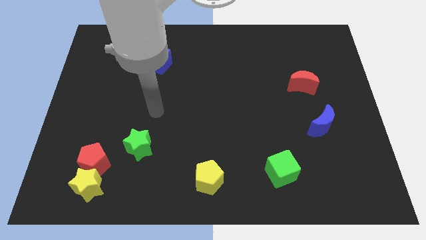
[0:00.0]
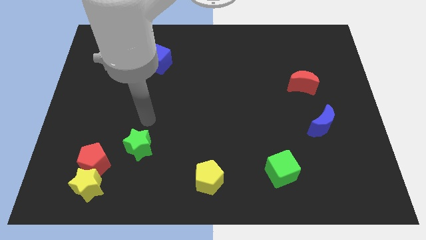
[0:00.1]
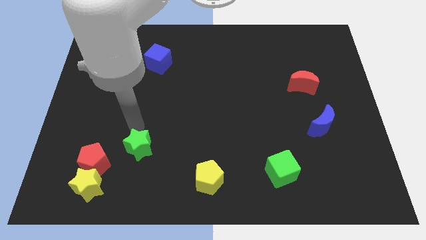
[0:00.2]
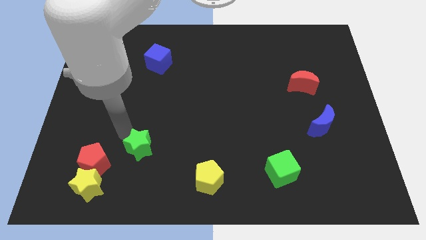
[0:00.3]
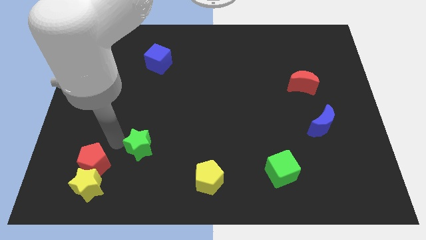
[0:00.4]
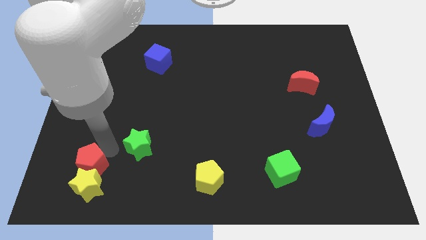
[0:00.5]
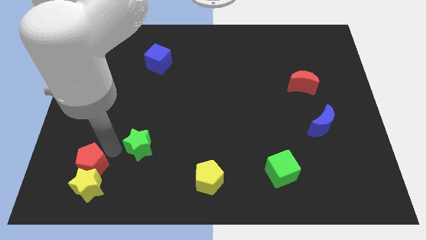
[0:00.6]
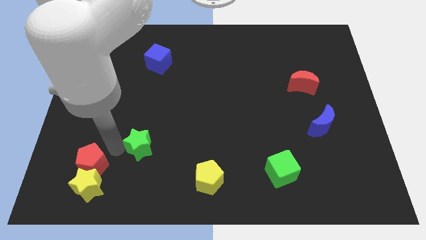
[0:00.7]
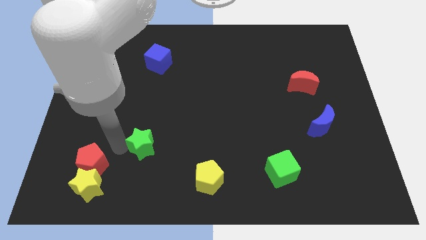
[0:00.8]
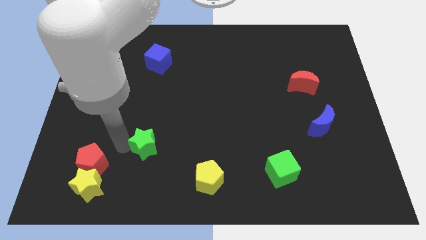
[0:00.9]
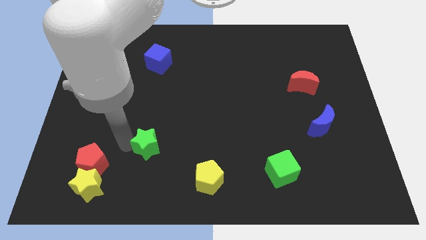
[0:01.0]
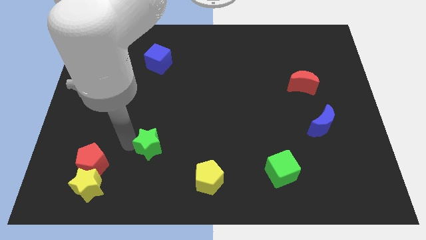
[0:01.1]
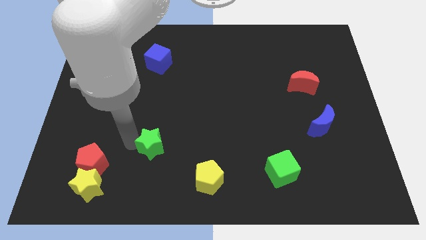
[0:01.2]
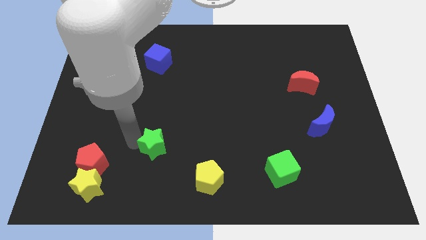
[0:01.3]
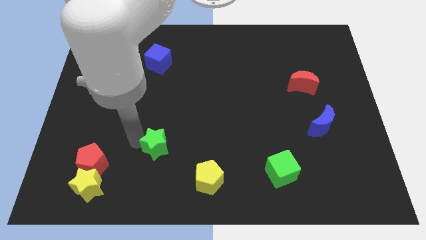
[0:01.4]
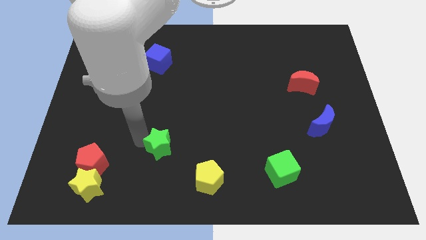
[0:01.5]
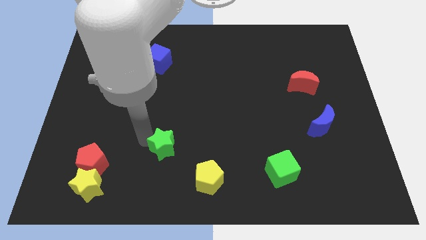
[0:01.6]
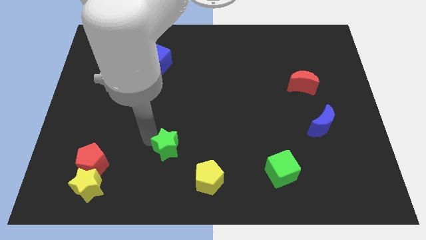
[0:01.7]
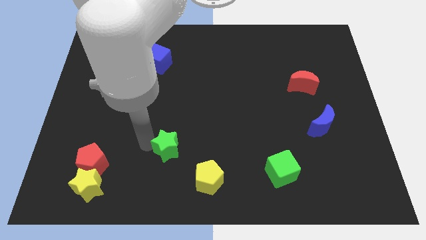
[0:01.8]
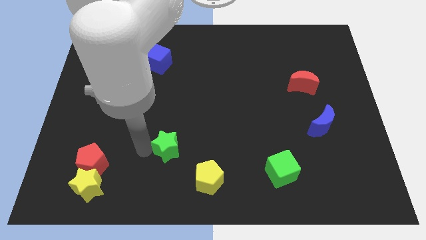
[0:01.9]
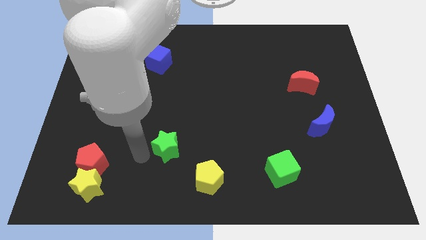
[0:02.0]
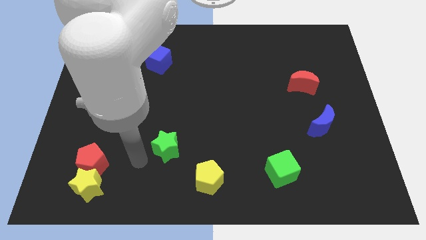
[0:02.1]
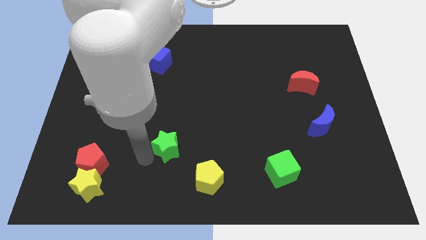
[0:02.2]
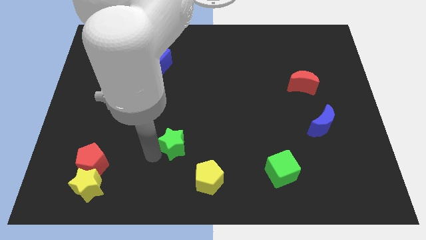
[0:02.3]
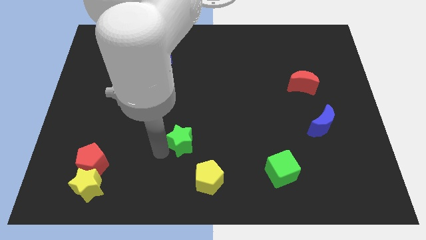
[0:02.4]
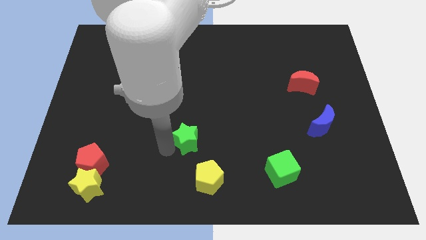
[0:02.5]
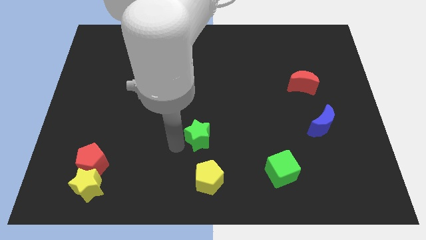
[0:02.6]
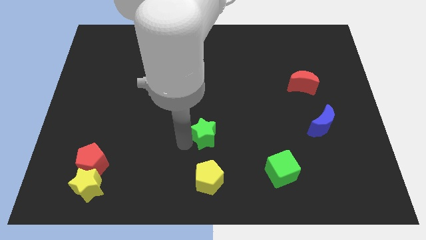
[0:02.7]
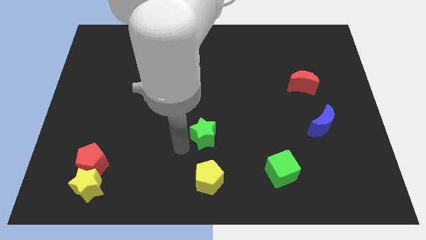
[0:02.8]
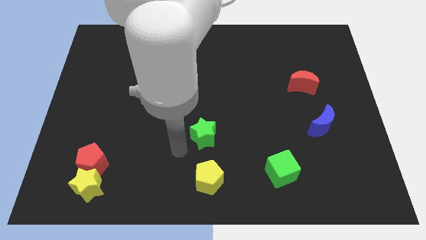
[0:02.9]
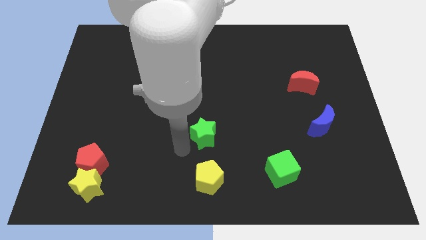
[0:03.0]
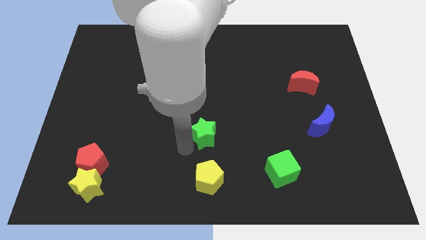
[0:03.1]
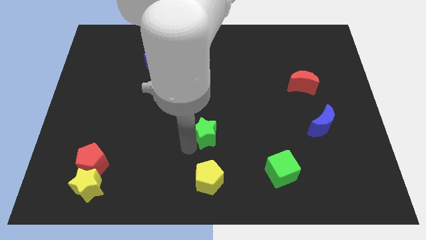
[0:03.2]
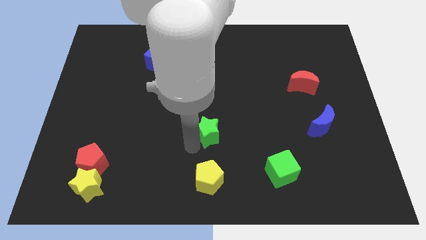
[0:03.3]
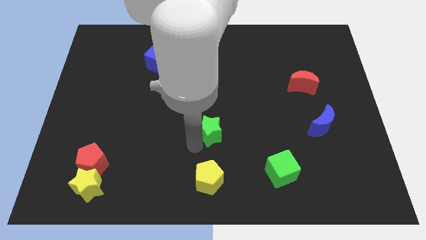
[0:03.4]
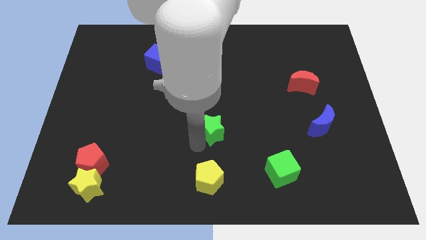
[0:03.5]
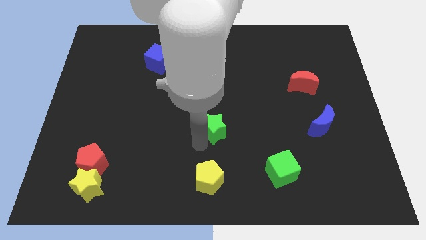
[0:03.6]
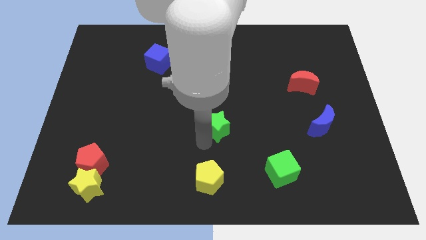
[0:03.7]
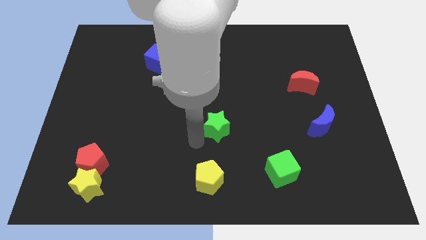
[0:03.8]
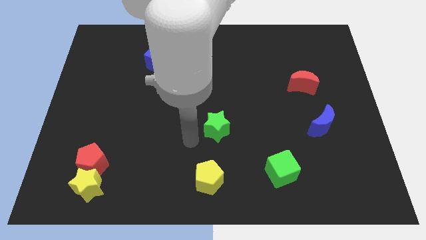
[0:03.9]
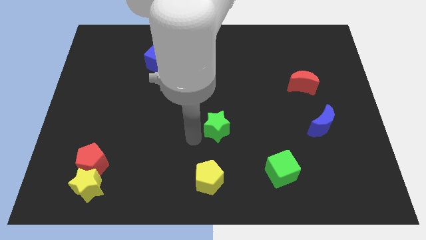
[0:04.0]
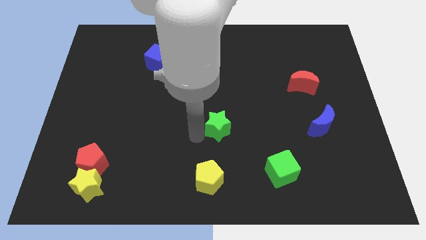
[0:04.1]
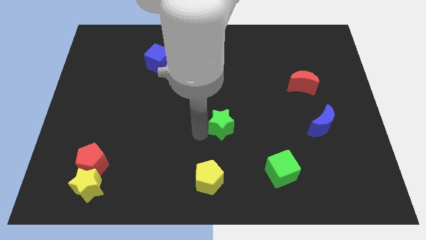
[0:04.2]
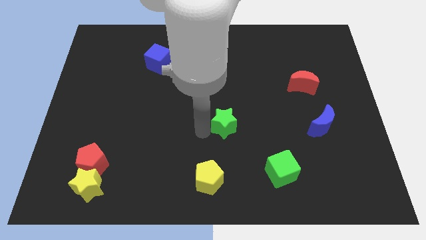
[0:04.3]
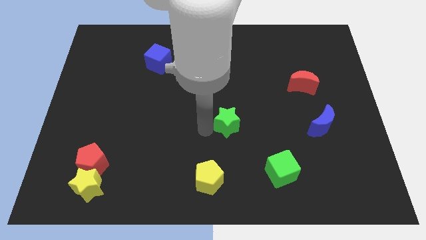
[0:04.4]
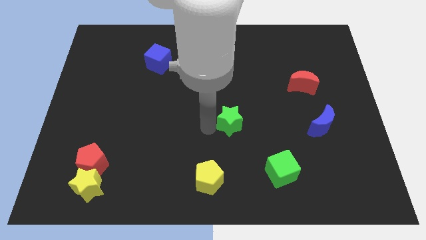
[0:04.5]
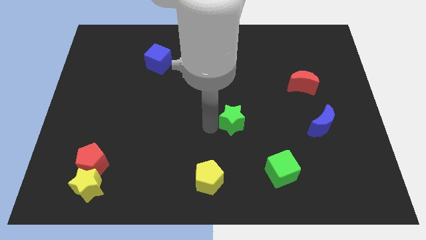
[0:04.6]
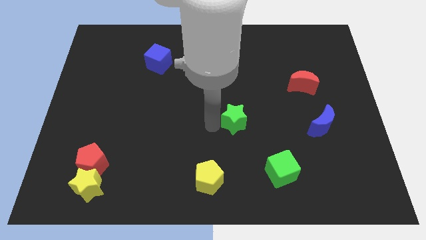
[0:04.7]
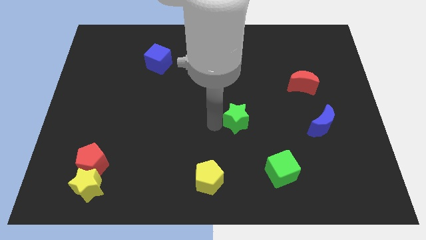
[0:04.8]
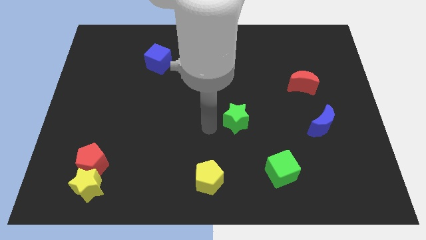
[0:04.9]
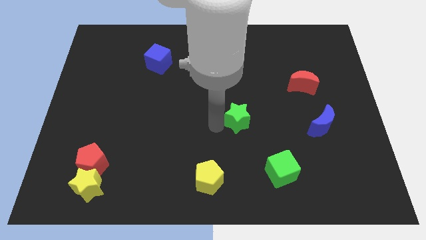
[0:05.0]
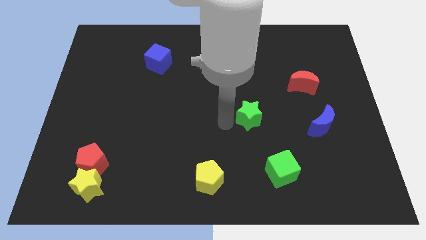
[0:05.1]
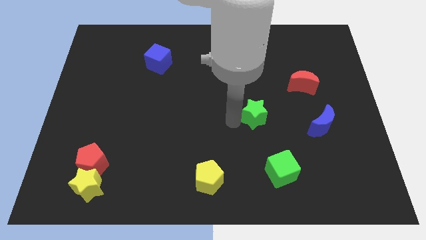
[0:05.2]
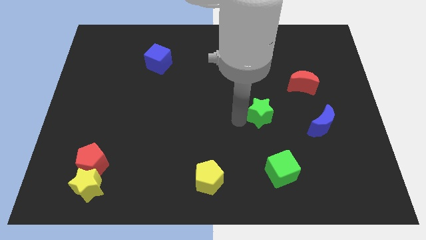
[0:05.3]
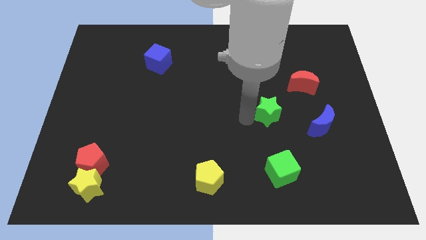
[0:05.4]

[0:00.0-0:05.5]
slide the green star diagonally down and to the left of the red moon

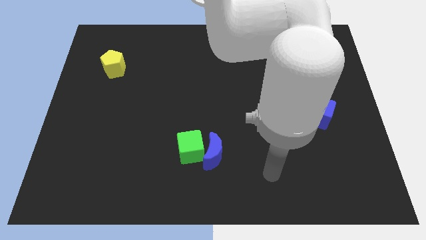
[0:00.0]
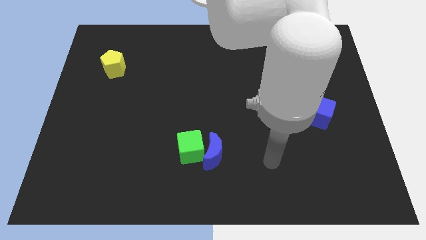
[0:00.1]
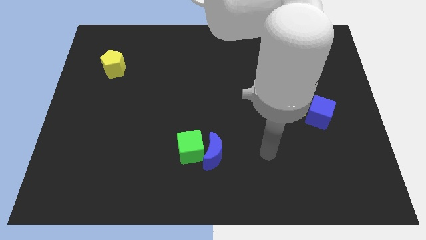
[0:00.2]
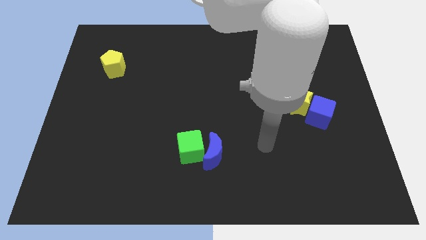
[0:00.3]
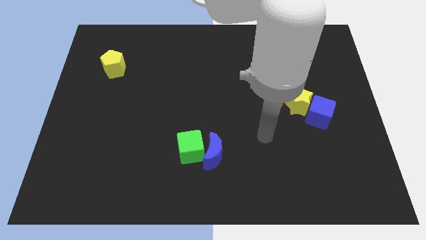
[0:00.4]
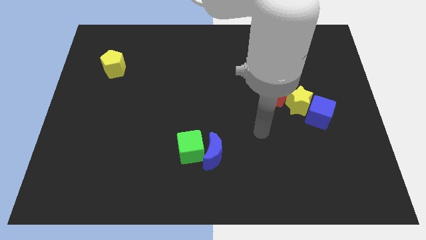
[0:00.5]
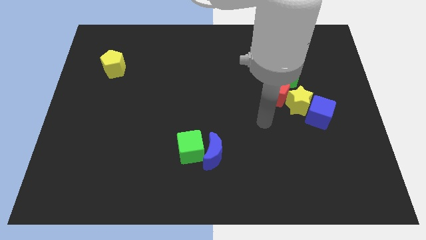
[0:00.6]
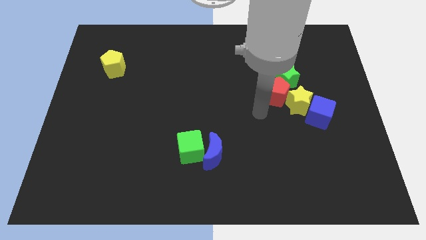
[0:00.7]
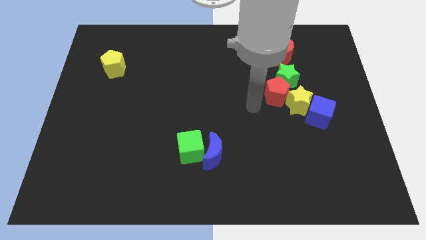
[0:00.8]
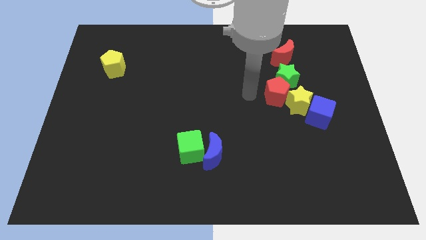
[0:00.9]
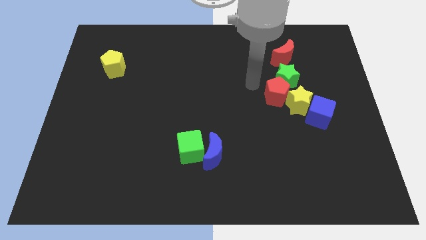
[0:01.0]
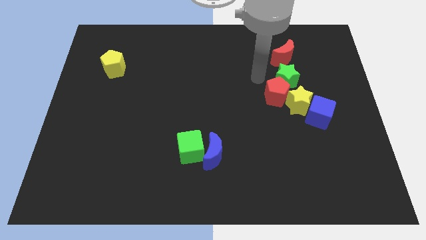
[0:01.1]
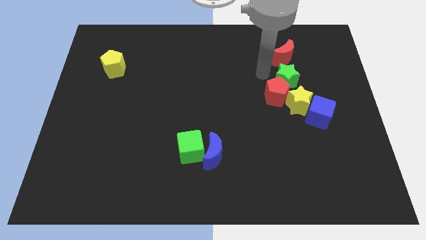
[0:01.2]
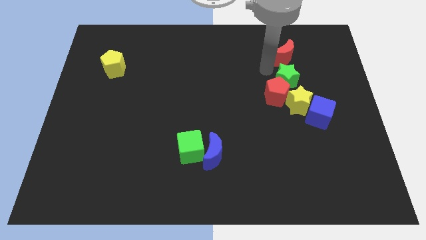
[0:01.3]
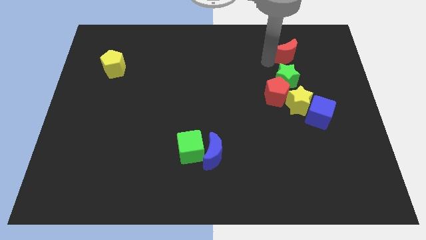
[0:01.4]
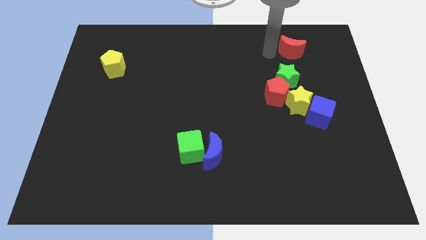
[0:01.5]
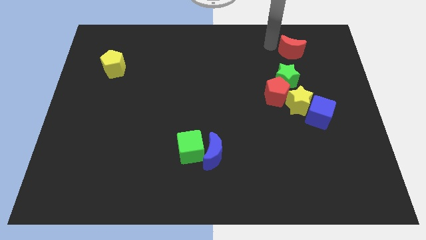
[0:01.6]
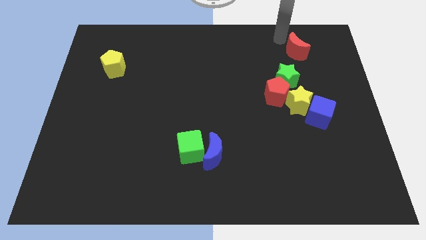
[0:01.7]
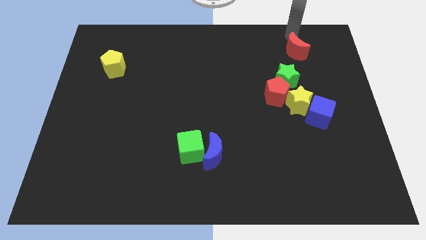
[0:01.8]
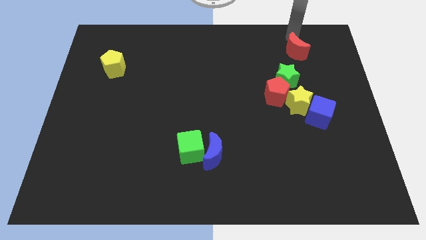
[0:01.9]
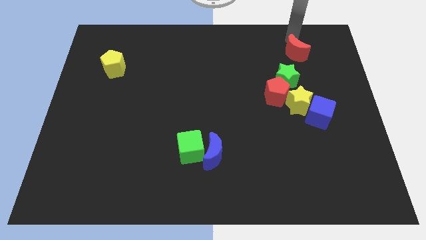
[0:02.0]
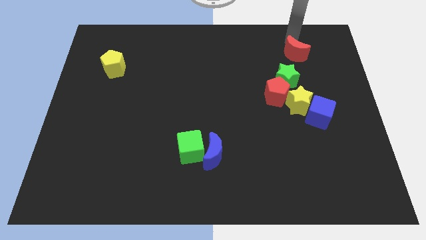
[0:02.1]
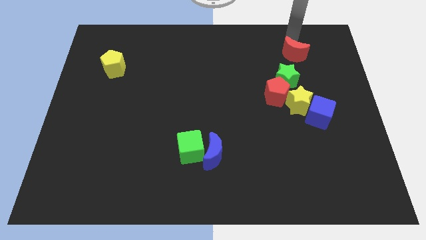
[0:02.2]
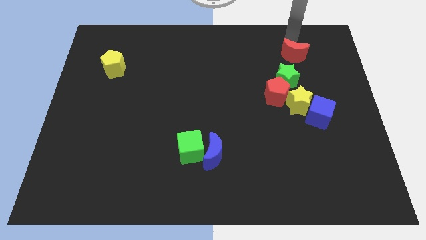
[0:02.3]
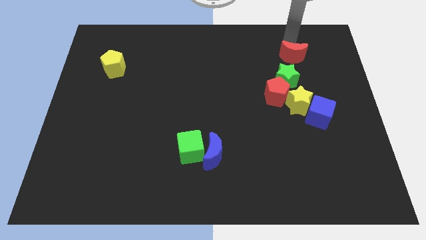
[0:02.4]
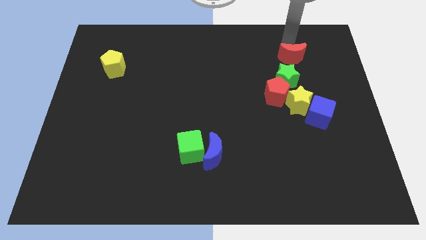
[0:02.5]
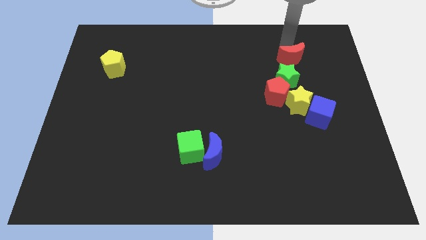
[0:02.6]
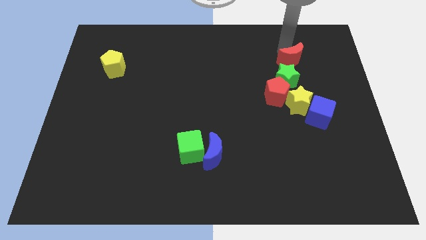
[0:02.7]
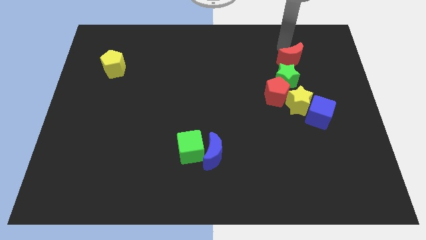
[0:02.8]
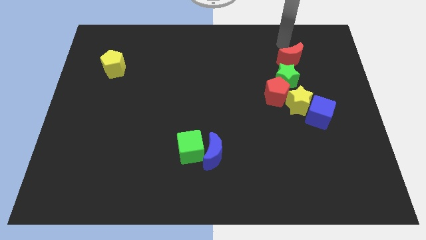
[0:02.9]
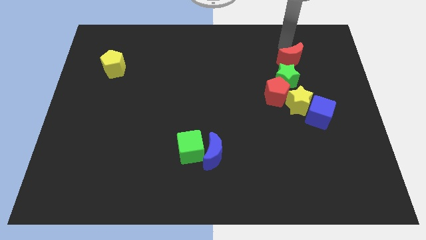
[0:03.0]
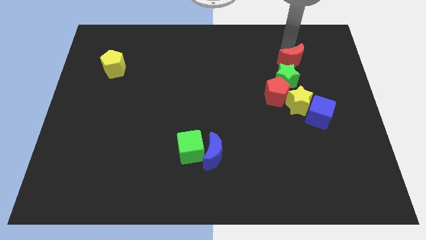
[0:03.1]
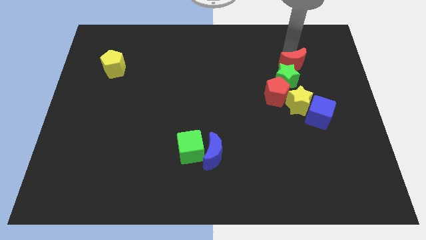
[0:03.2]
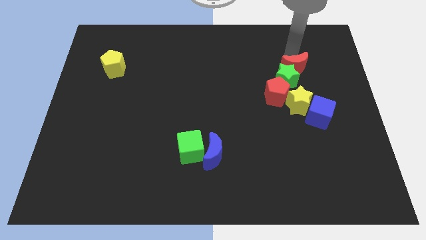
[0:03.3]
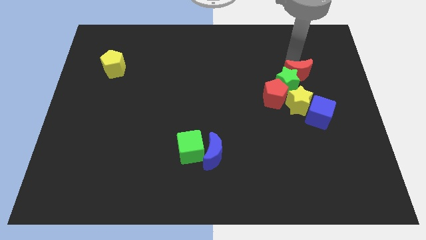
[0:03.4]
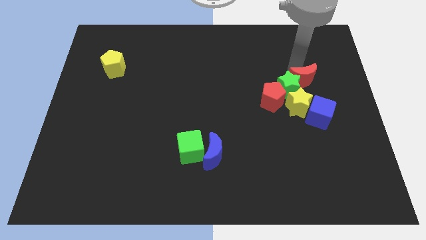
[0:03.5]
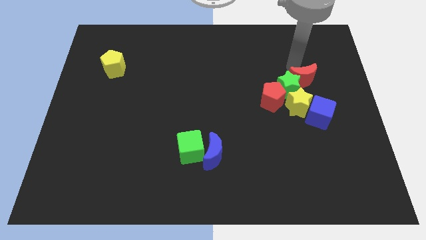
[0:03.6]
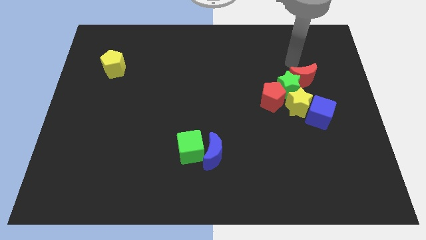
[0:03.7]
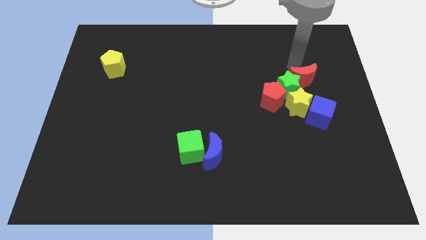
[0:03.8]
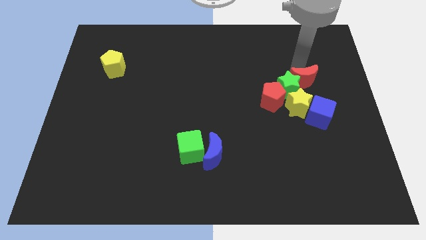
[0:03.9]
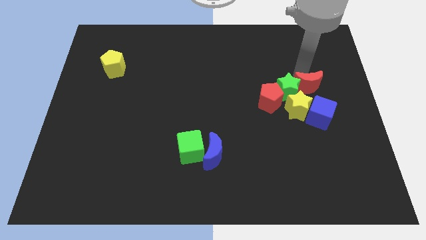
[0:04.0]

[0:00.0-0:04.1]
slide the red moon to the right of the red pentagon
